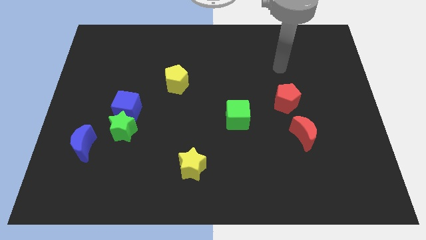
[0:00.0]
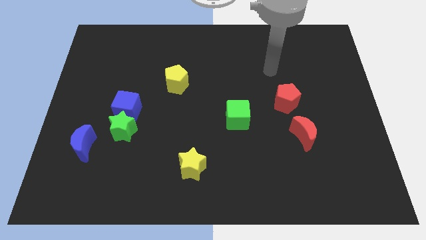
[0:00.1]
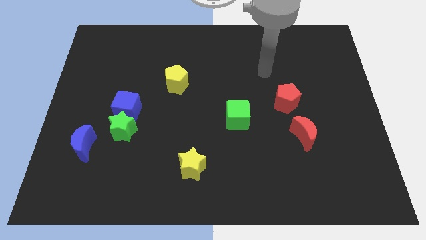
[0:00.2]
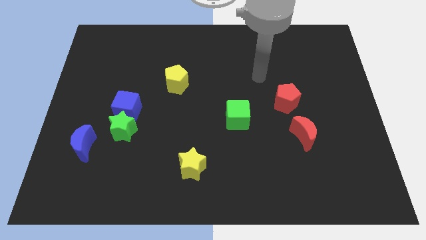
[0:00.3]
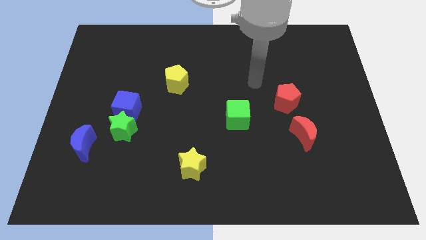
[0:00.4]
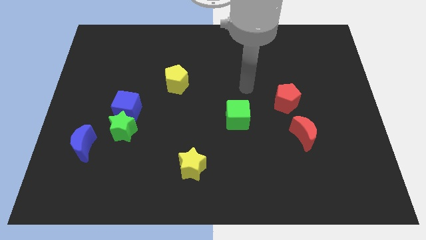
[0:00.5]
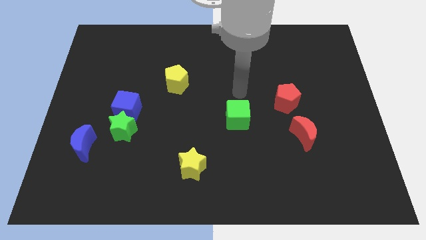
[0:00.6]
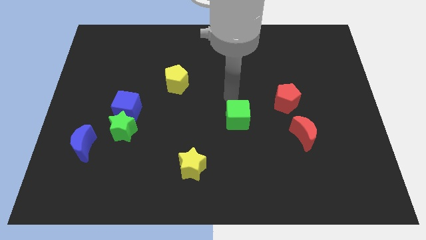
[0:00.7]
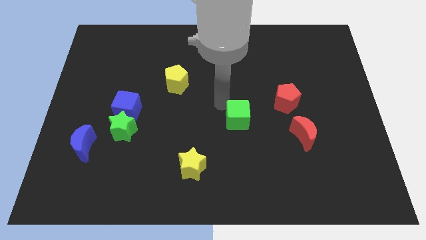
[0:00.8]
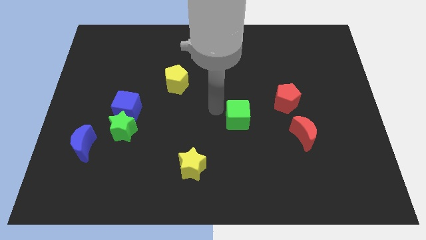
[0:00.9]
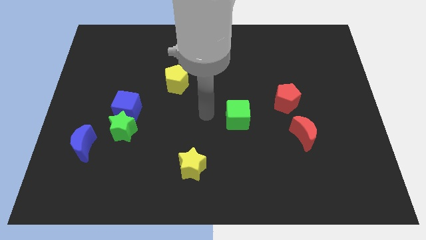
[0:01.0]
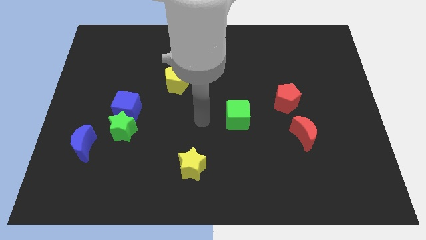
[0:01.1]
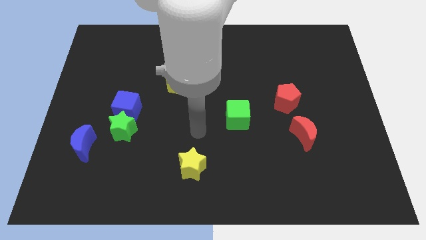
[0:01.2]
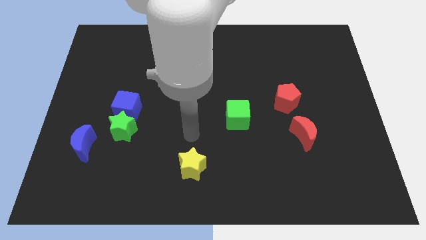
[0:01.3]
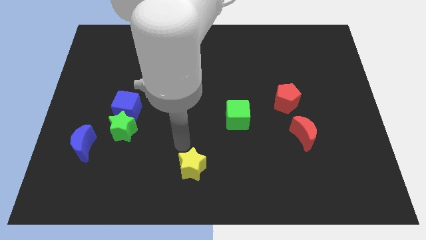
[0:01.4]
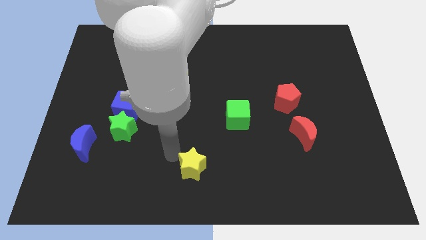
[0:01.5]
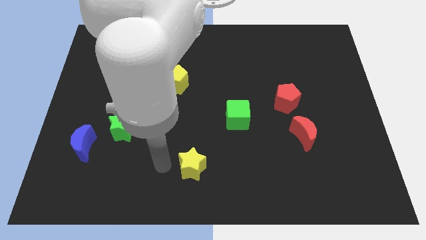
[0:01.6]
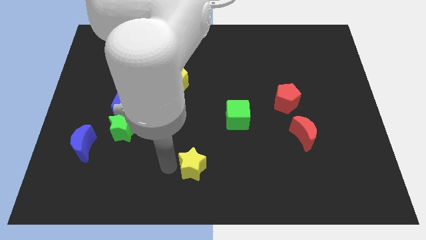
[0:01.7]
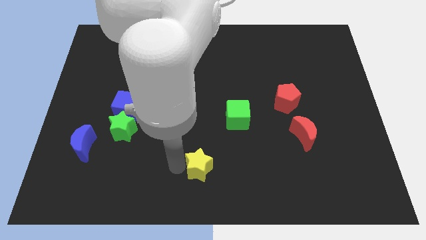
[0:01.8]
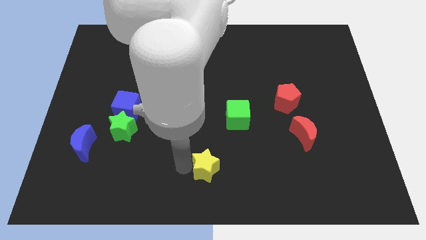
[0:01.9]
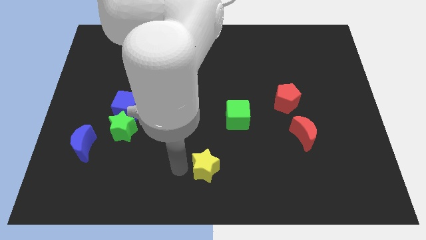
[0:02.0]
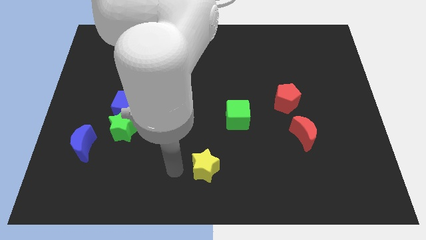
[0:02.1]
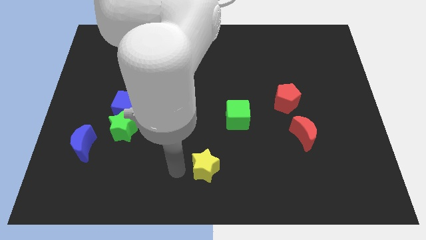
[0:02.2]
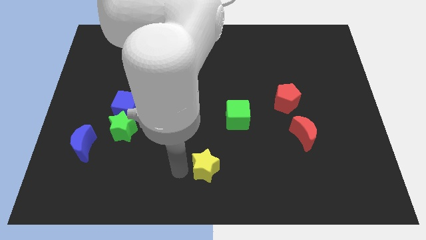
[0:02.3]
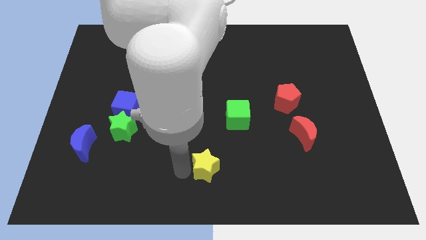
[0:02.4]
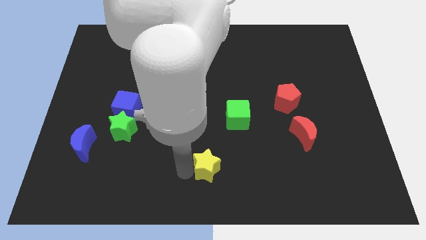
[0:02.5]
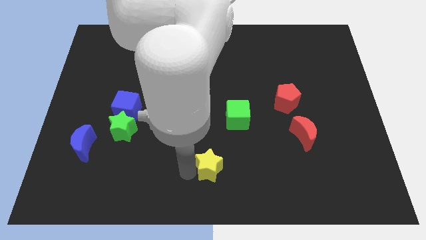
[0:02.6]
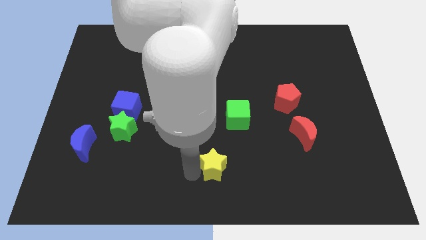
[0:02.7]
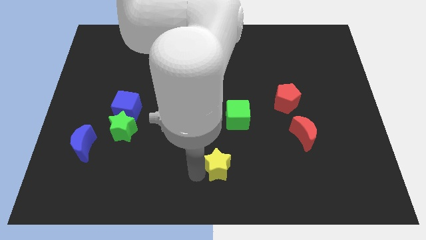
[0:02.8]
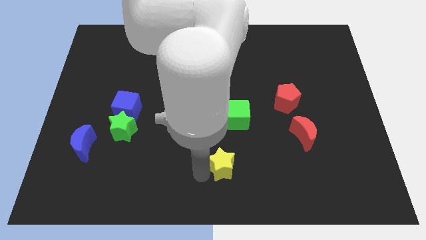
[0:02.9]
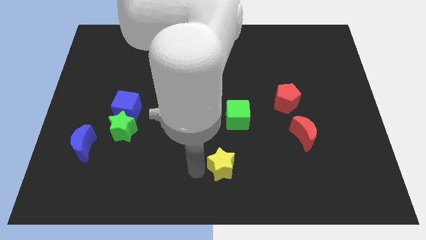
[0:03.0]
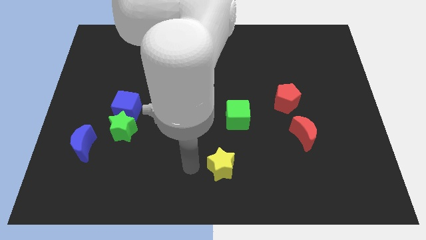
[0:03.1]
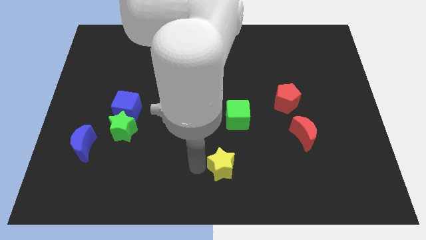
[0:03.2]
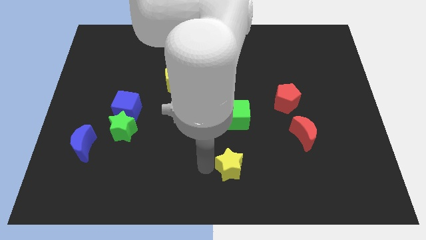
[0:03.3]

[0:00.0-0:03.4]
slide the yellow star to the right slightly

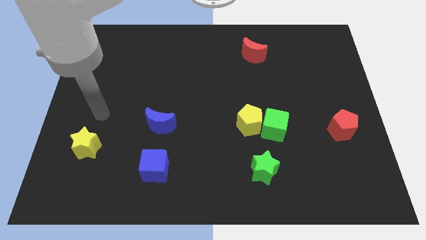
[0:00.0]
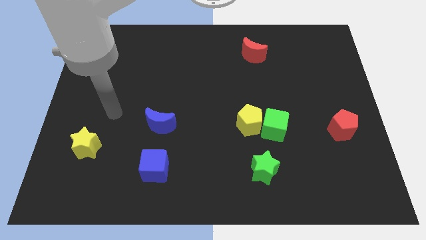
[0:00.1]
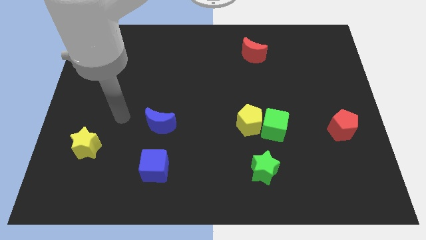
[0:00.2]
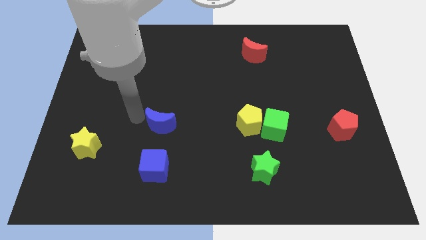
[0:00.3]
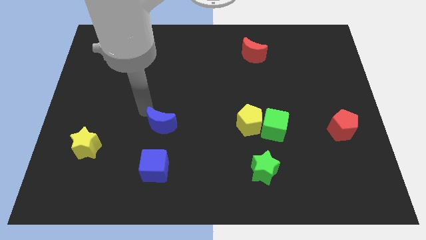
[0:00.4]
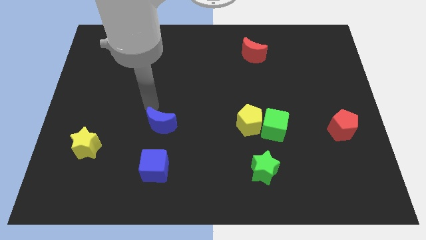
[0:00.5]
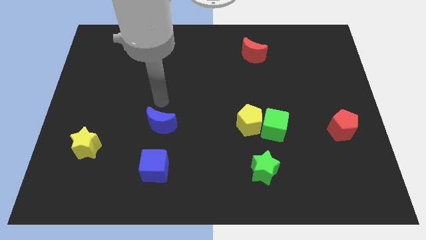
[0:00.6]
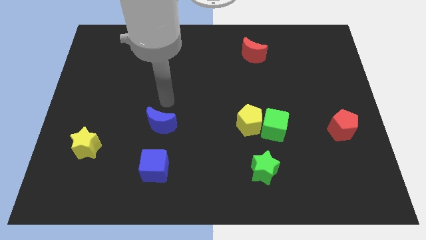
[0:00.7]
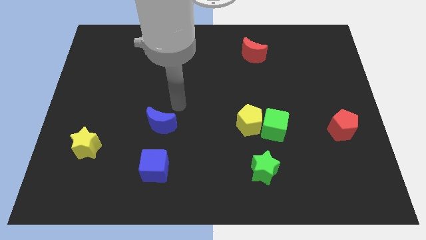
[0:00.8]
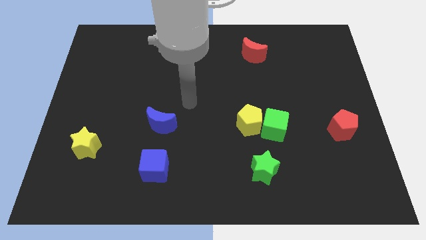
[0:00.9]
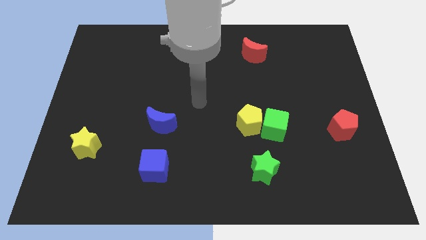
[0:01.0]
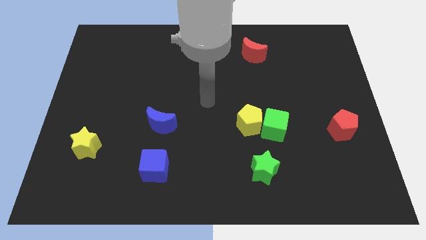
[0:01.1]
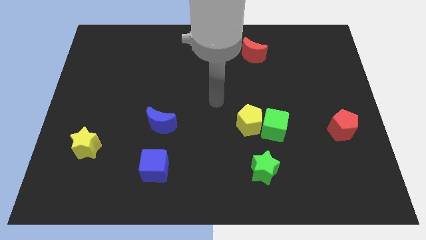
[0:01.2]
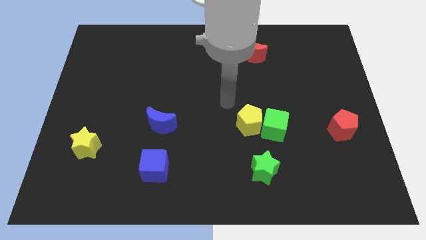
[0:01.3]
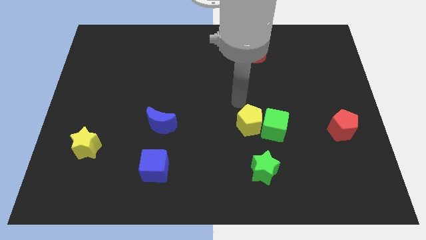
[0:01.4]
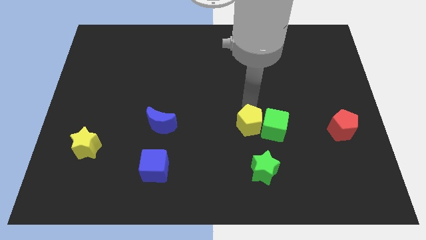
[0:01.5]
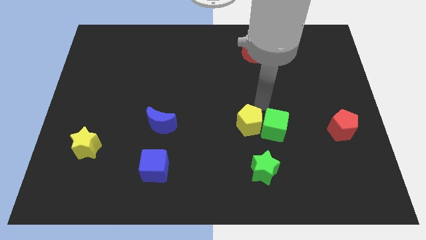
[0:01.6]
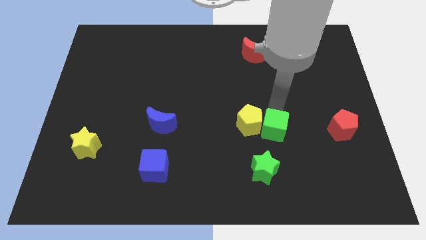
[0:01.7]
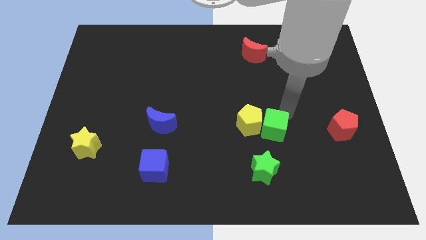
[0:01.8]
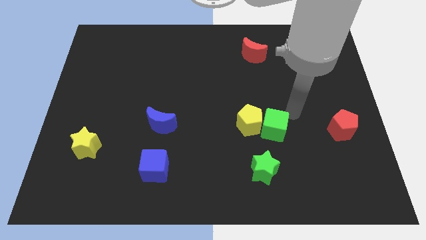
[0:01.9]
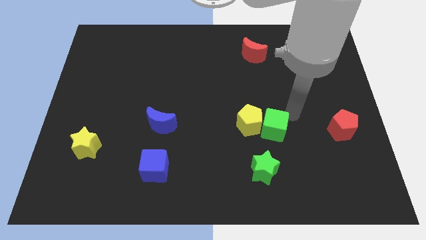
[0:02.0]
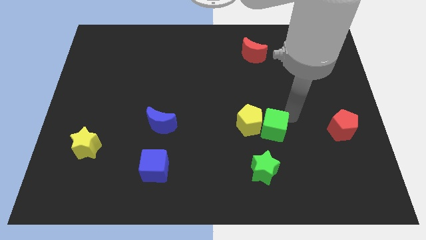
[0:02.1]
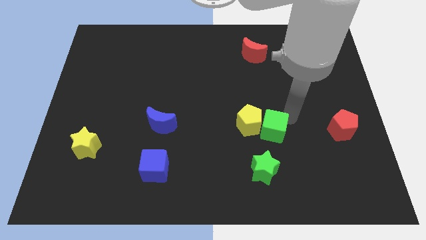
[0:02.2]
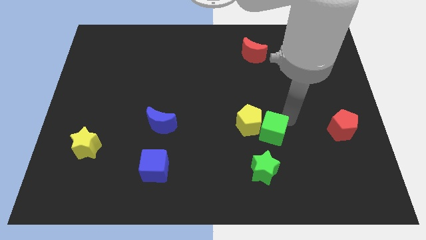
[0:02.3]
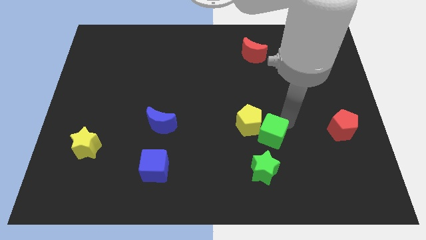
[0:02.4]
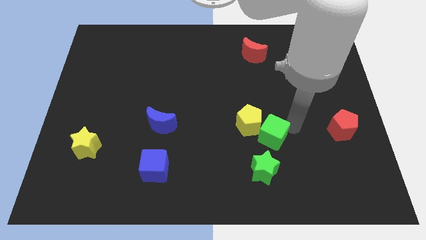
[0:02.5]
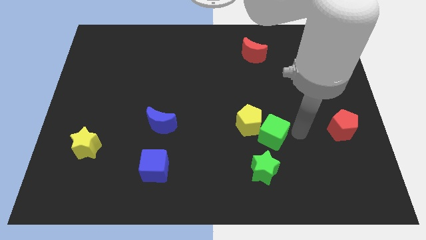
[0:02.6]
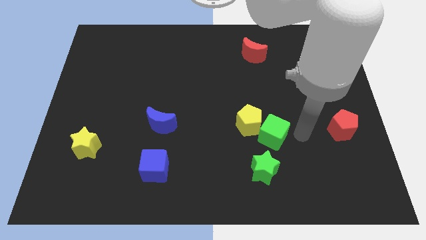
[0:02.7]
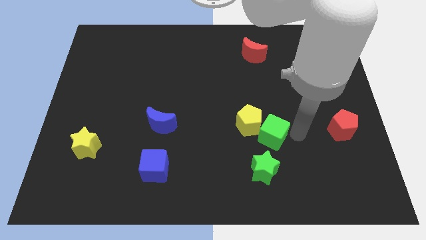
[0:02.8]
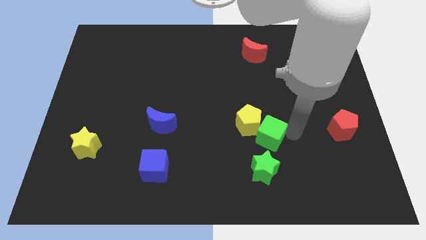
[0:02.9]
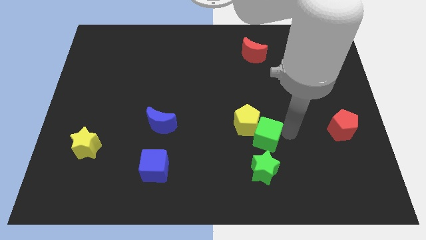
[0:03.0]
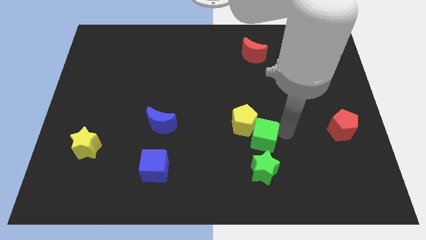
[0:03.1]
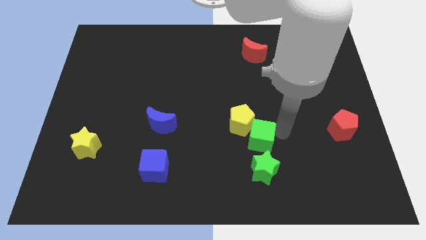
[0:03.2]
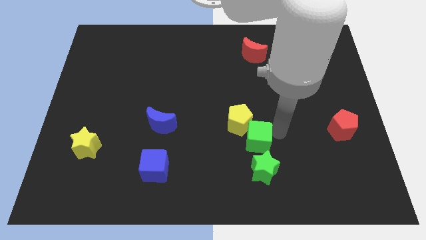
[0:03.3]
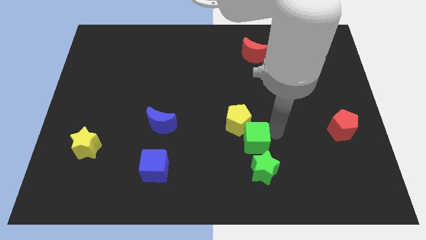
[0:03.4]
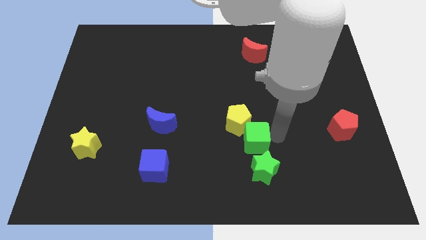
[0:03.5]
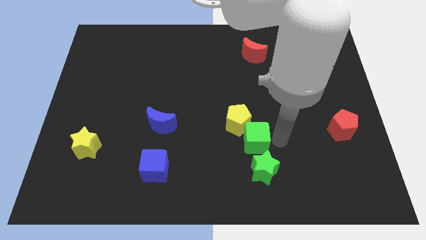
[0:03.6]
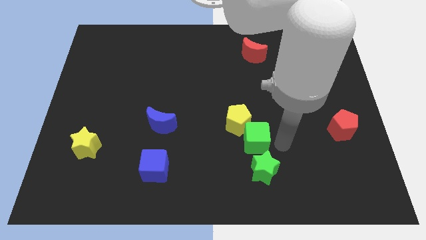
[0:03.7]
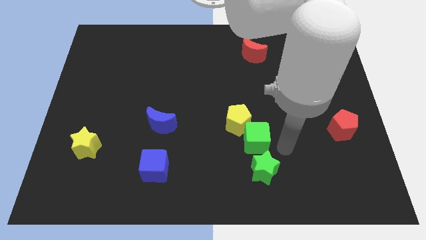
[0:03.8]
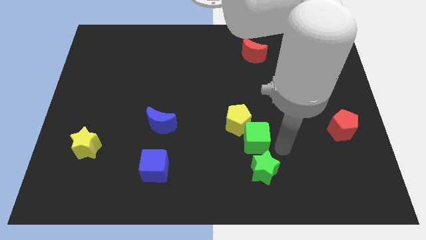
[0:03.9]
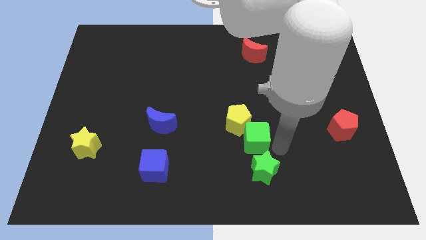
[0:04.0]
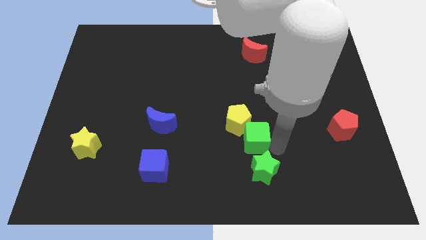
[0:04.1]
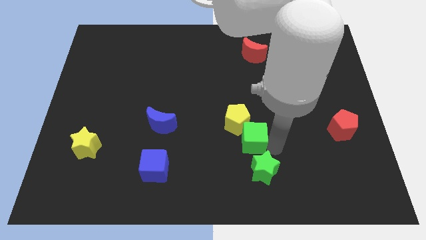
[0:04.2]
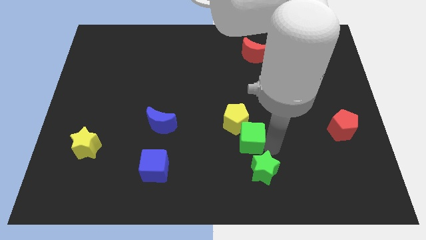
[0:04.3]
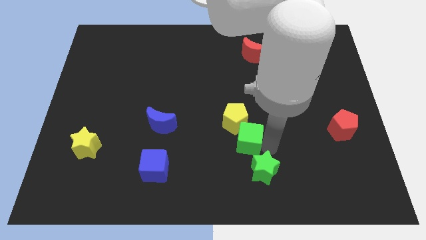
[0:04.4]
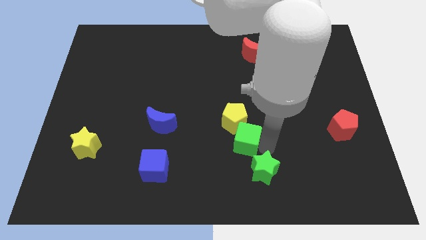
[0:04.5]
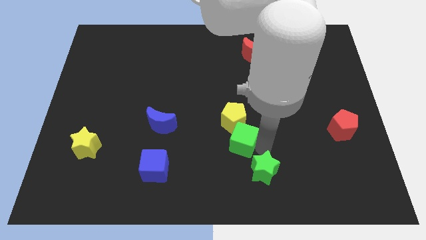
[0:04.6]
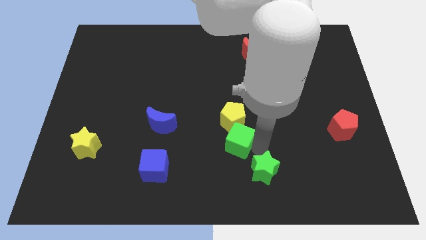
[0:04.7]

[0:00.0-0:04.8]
slide the green cube left a little bit
